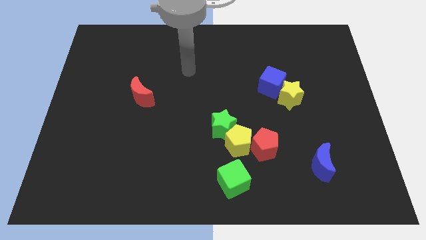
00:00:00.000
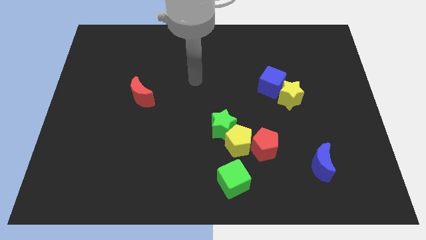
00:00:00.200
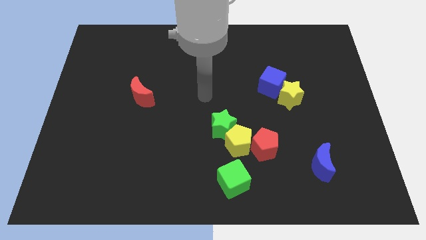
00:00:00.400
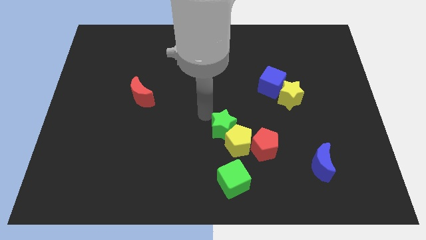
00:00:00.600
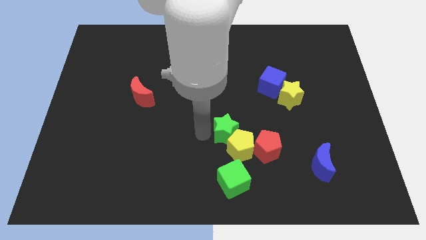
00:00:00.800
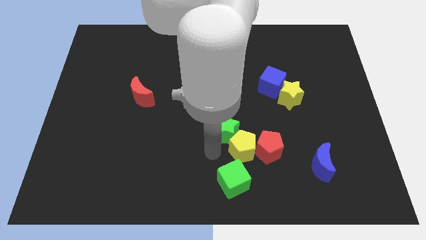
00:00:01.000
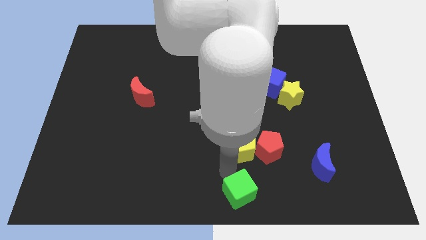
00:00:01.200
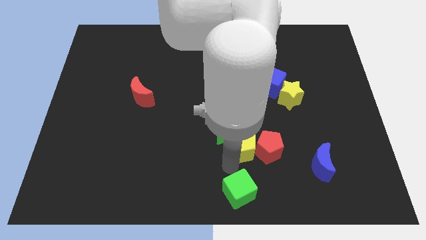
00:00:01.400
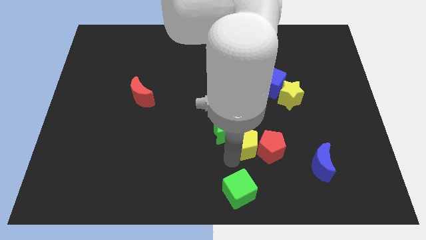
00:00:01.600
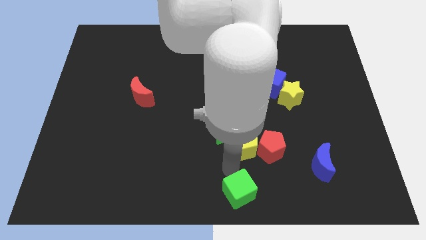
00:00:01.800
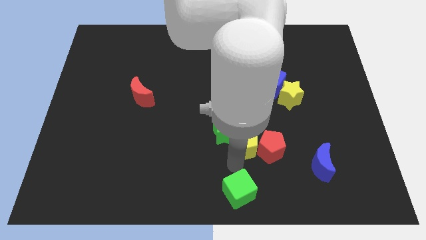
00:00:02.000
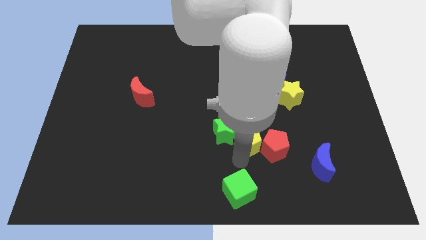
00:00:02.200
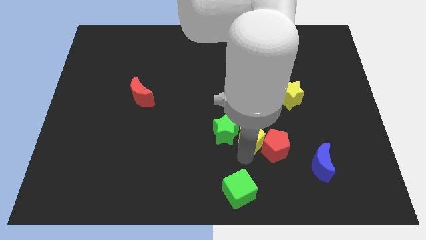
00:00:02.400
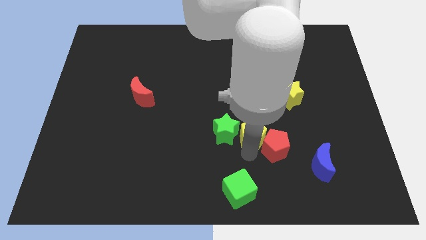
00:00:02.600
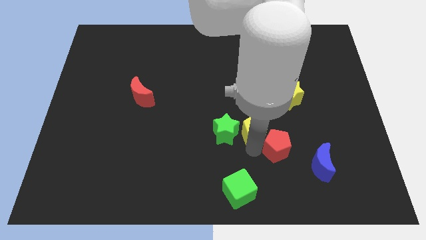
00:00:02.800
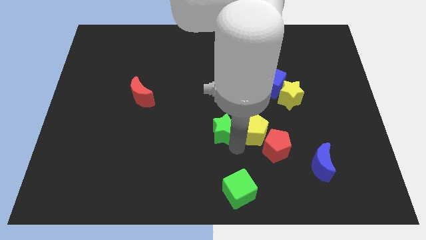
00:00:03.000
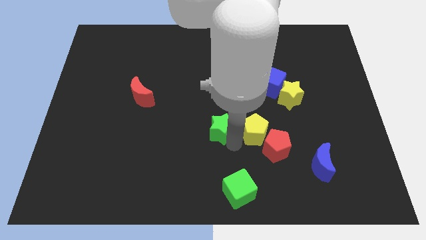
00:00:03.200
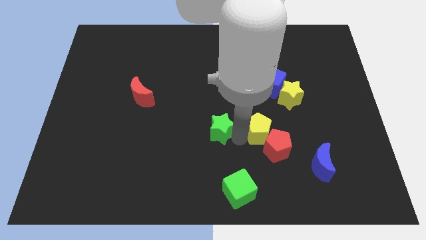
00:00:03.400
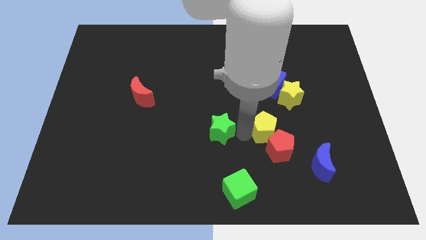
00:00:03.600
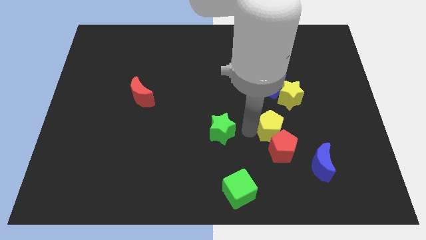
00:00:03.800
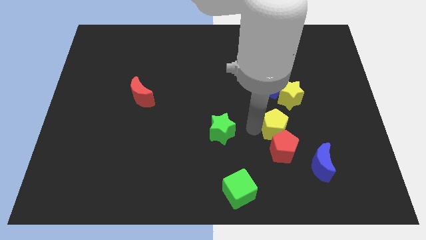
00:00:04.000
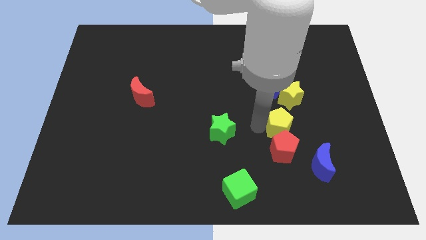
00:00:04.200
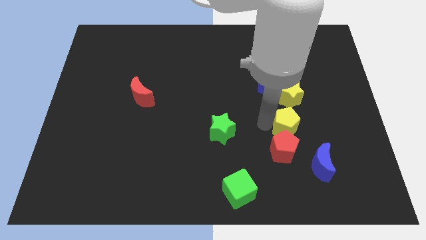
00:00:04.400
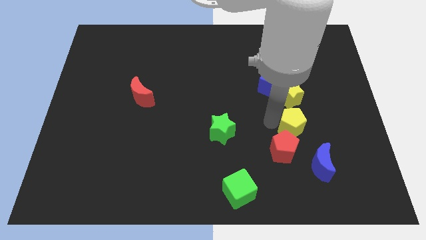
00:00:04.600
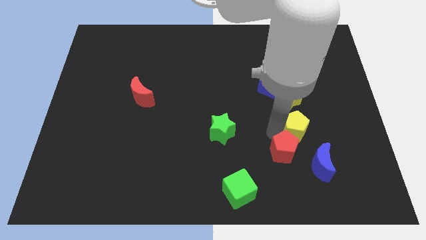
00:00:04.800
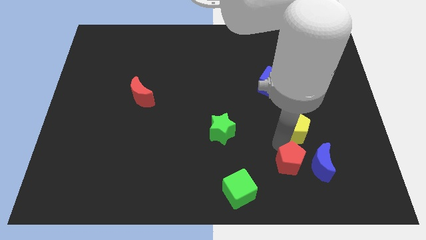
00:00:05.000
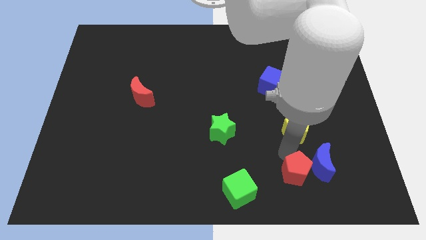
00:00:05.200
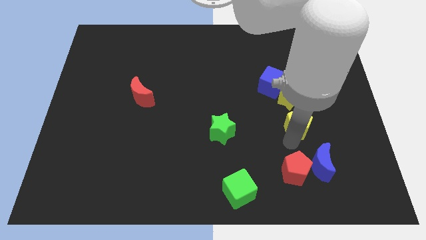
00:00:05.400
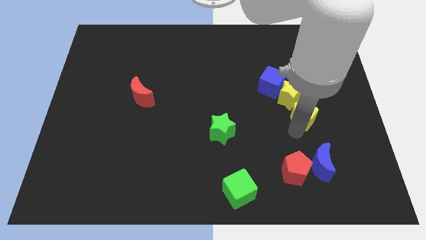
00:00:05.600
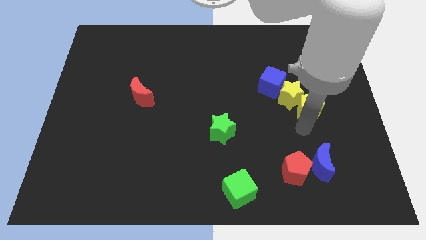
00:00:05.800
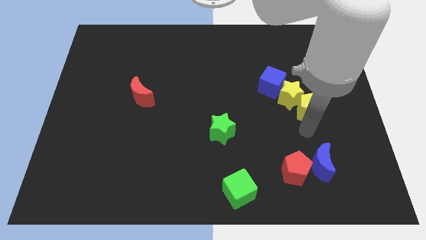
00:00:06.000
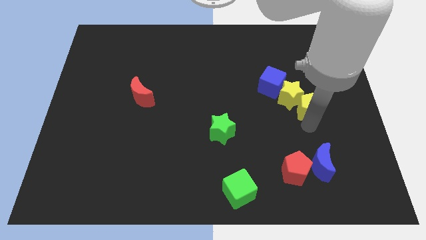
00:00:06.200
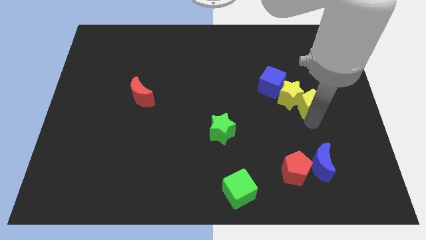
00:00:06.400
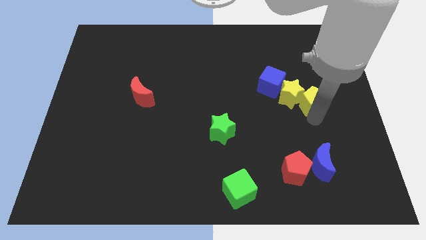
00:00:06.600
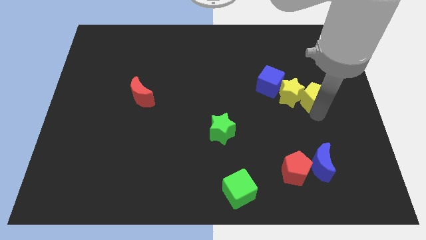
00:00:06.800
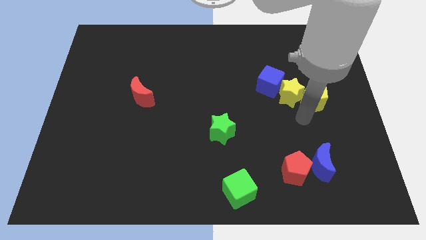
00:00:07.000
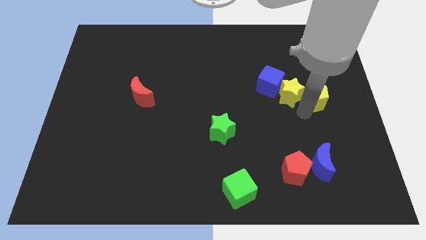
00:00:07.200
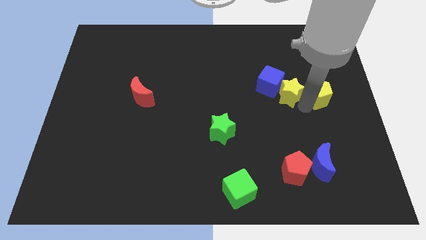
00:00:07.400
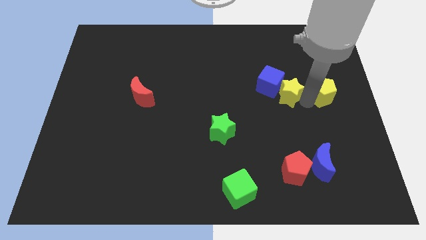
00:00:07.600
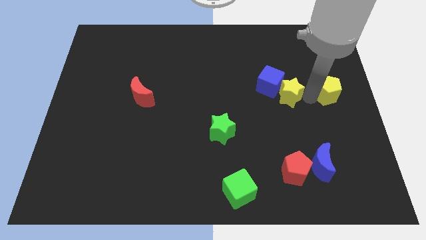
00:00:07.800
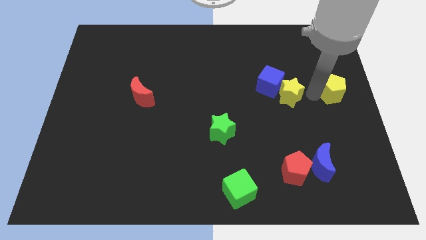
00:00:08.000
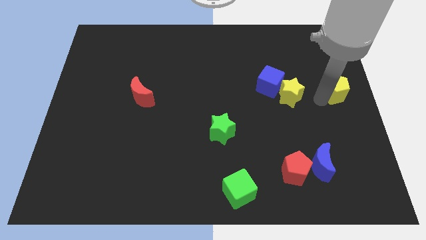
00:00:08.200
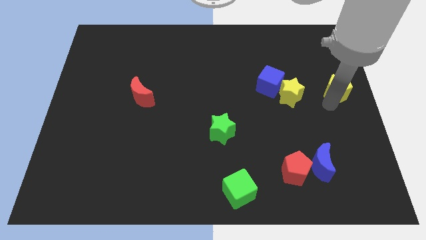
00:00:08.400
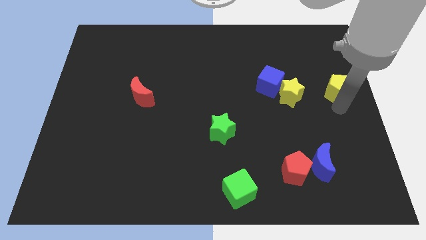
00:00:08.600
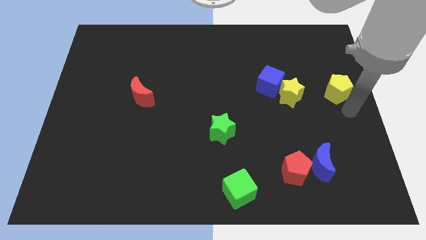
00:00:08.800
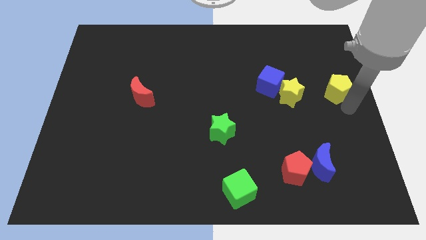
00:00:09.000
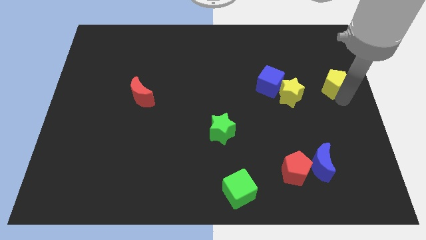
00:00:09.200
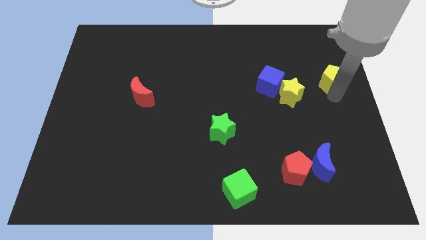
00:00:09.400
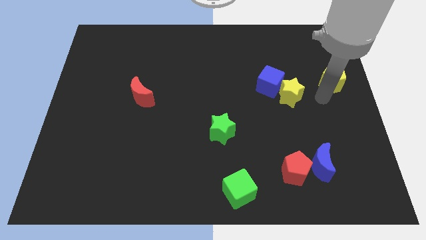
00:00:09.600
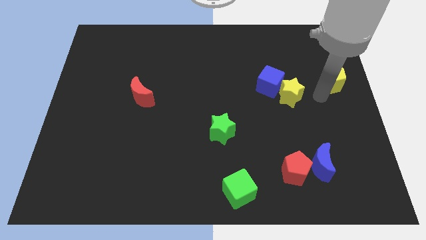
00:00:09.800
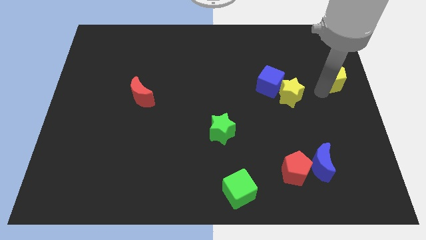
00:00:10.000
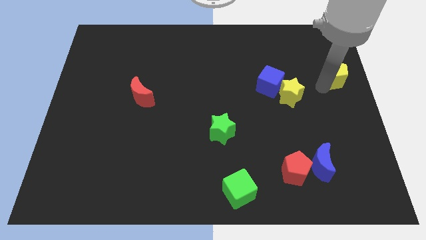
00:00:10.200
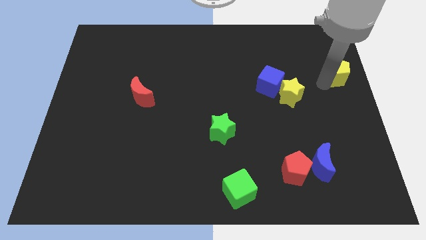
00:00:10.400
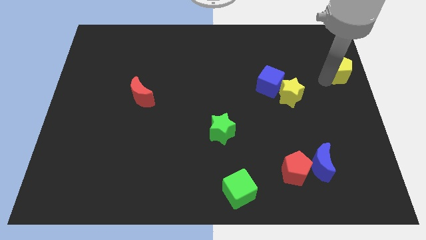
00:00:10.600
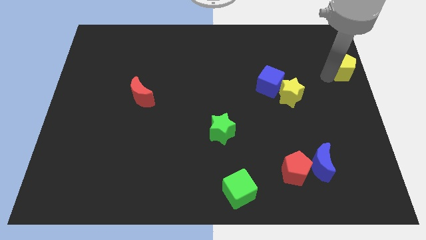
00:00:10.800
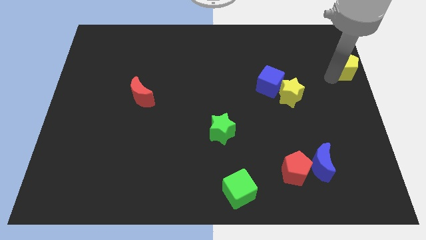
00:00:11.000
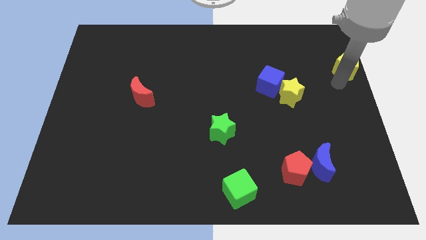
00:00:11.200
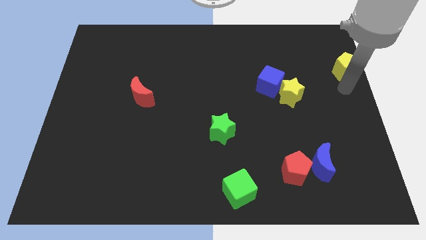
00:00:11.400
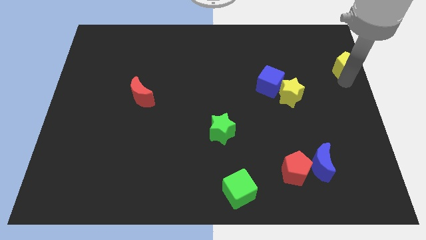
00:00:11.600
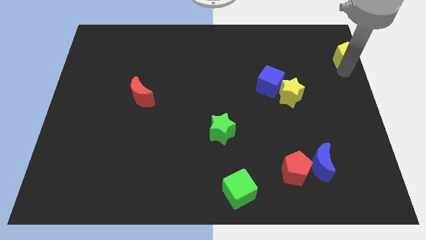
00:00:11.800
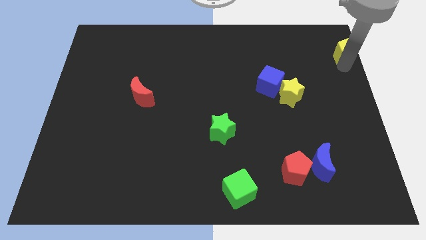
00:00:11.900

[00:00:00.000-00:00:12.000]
move the yellow pentagon to the top right corner

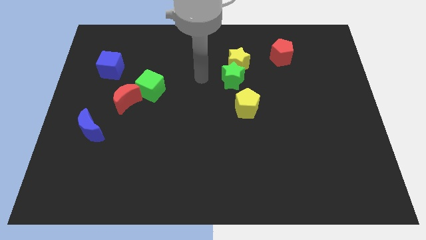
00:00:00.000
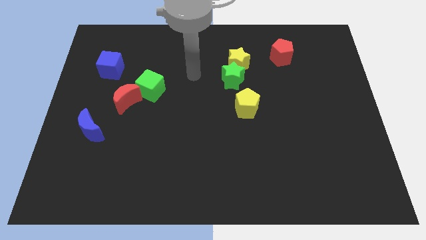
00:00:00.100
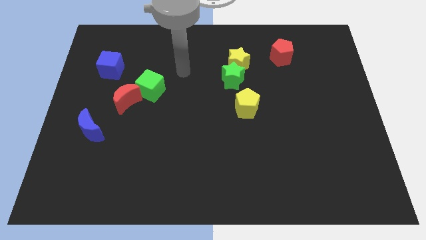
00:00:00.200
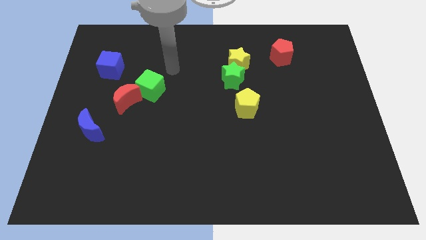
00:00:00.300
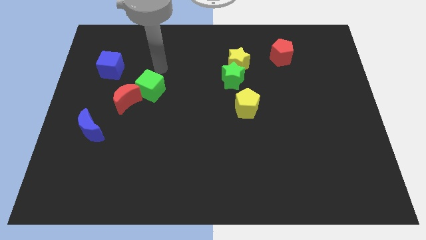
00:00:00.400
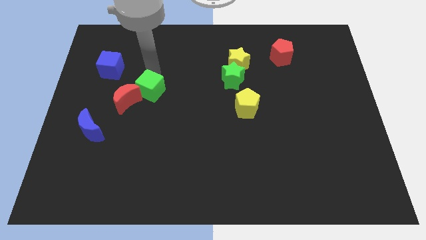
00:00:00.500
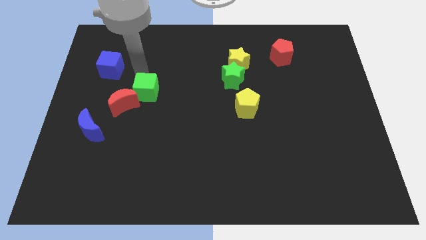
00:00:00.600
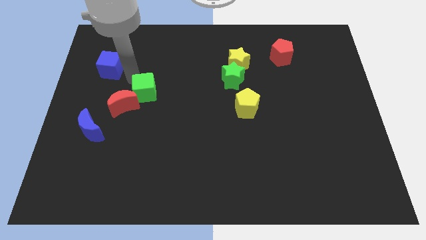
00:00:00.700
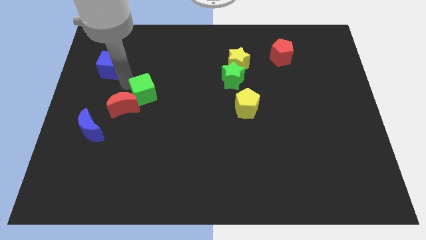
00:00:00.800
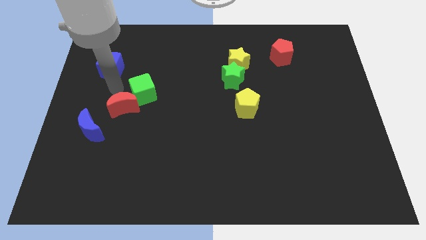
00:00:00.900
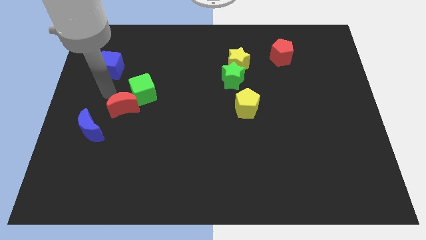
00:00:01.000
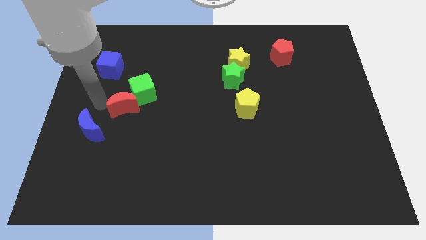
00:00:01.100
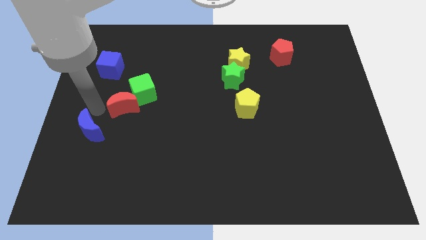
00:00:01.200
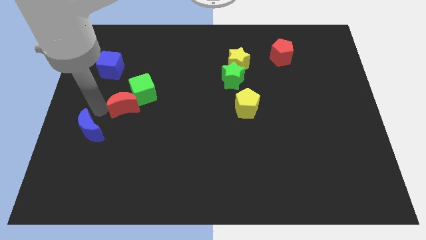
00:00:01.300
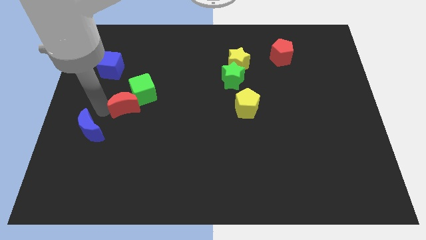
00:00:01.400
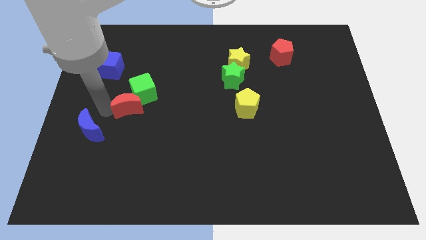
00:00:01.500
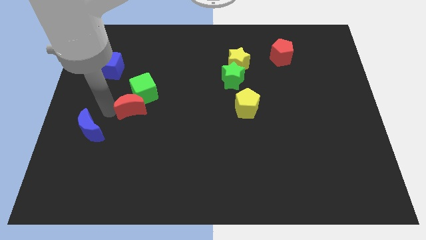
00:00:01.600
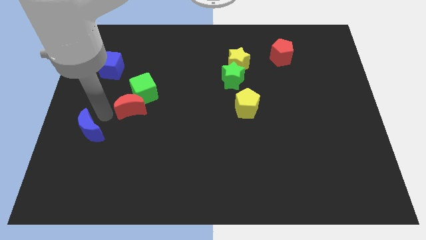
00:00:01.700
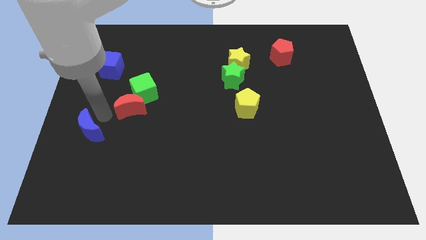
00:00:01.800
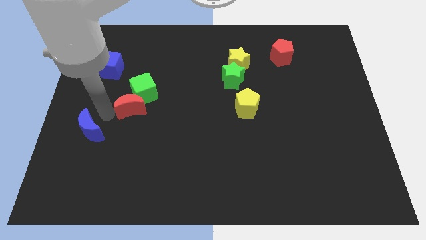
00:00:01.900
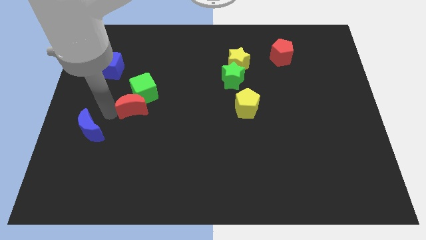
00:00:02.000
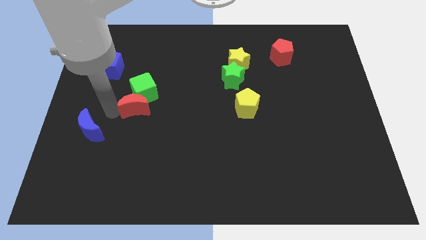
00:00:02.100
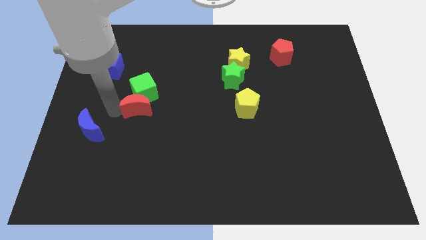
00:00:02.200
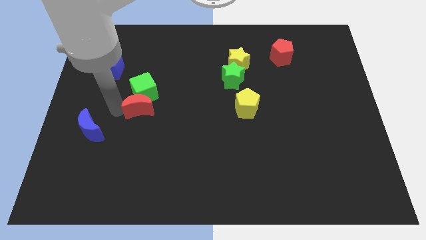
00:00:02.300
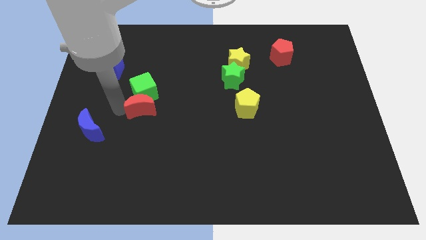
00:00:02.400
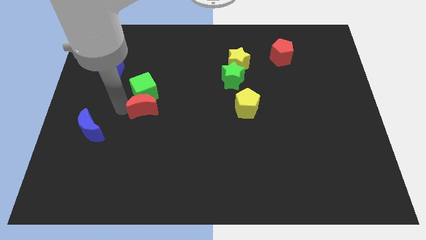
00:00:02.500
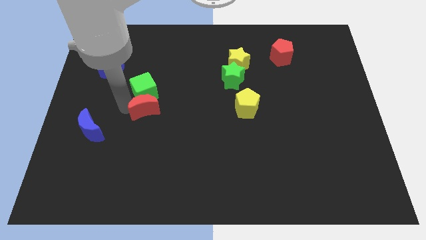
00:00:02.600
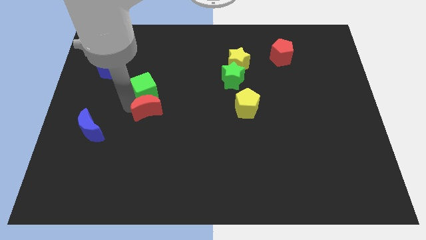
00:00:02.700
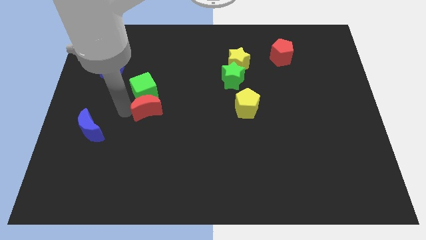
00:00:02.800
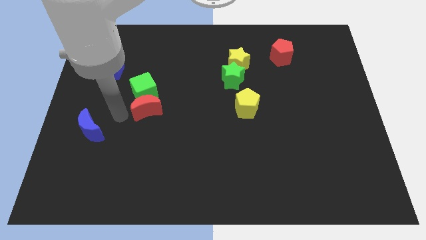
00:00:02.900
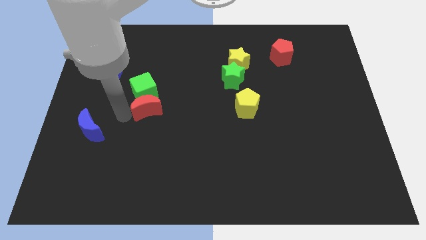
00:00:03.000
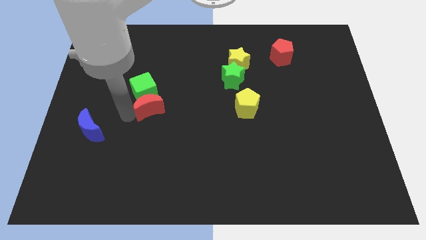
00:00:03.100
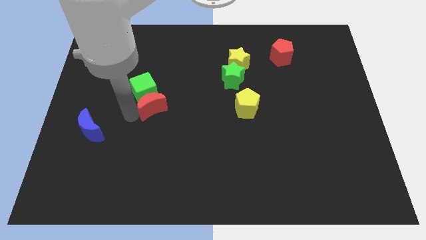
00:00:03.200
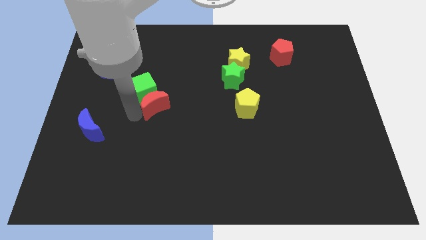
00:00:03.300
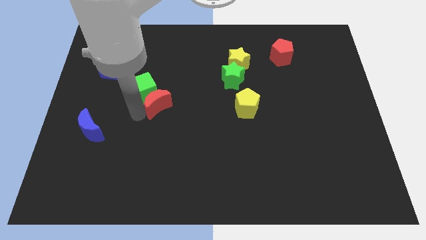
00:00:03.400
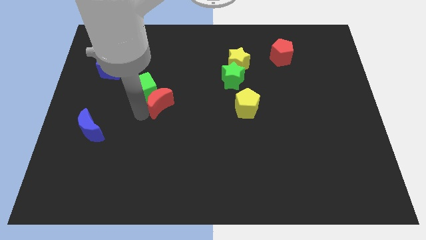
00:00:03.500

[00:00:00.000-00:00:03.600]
push the red moon to the center of the board
